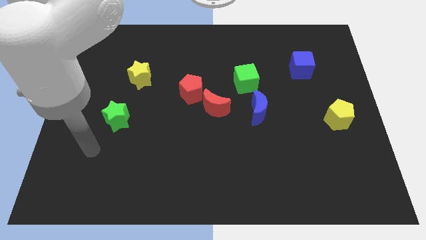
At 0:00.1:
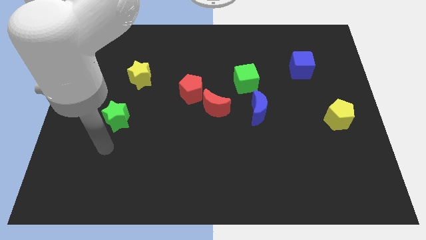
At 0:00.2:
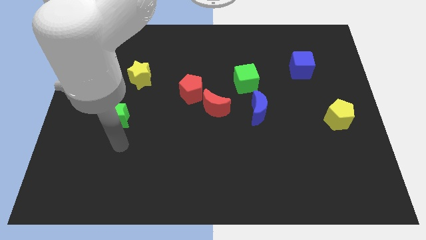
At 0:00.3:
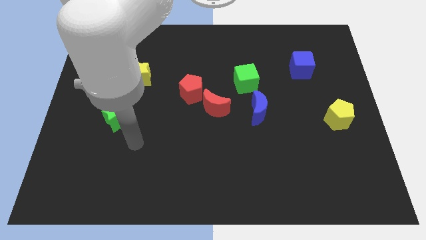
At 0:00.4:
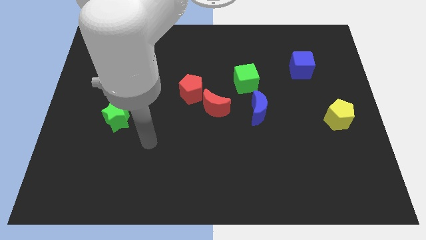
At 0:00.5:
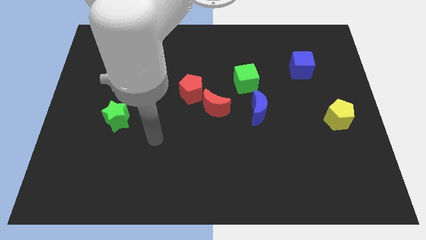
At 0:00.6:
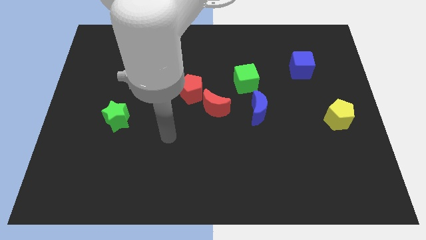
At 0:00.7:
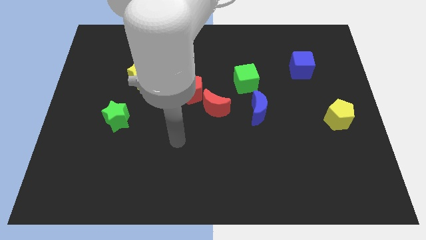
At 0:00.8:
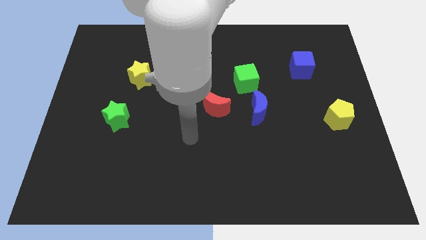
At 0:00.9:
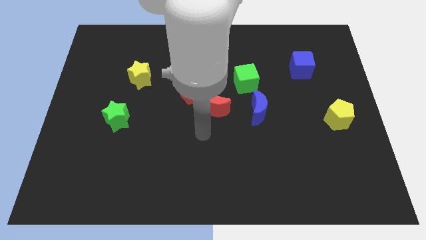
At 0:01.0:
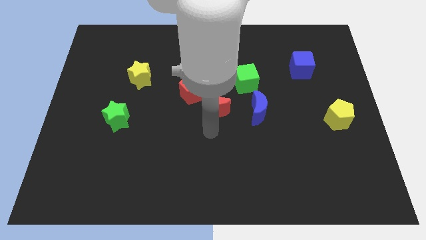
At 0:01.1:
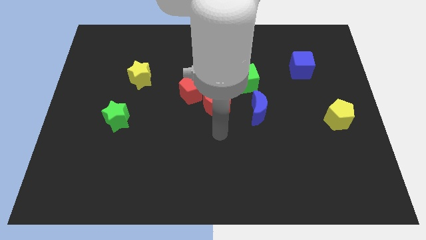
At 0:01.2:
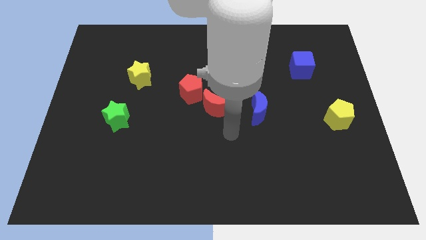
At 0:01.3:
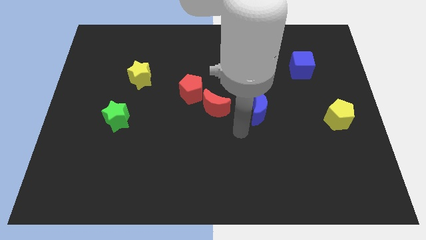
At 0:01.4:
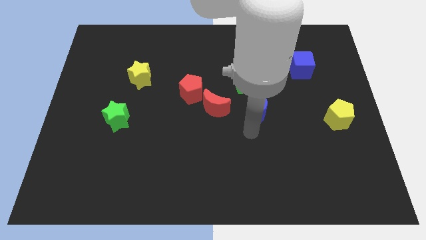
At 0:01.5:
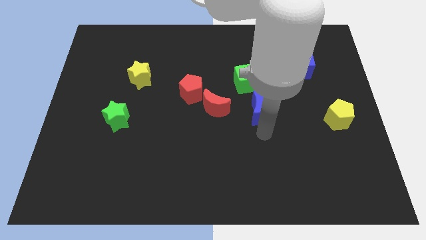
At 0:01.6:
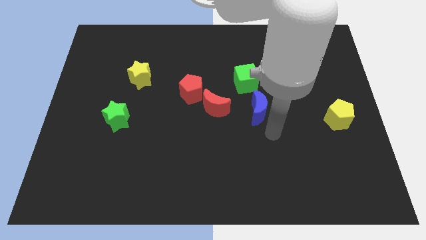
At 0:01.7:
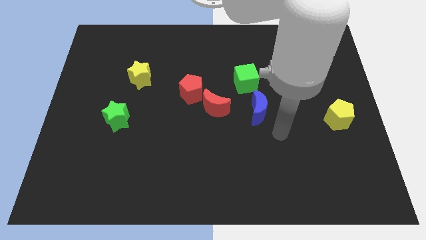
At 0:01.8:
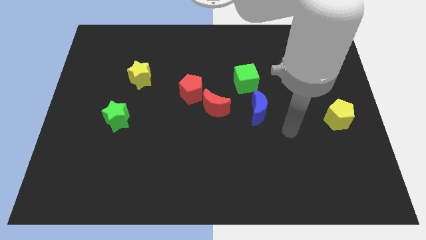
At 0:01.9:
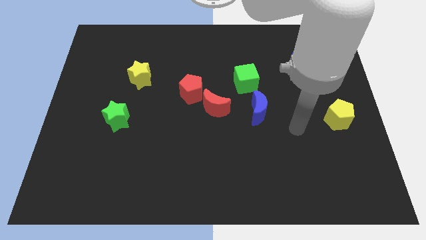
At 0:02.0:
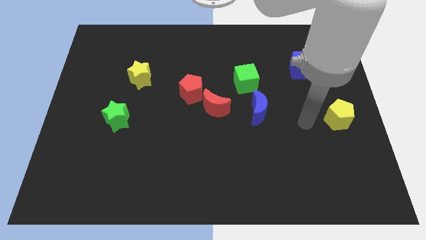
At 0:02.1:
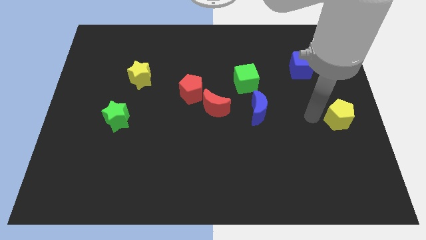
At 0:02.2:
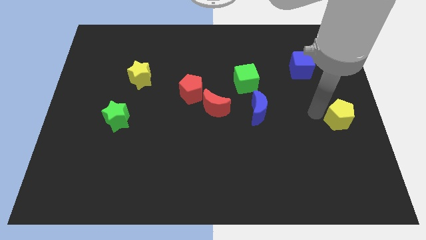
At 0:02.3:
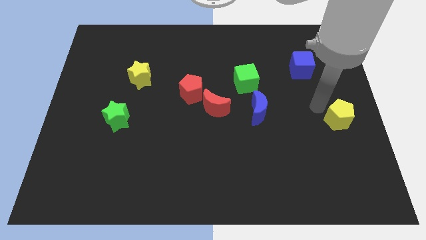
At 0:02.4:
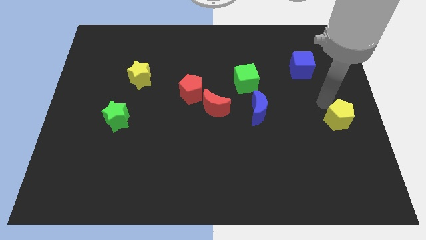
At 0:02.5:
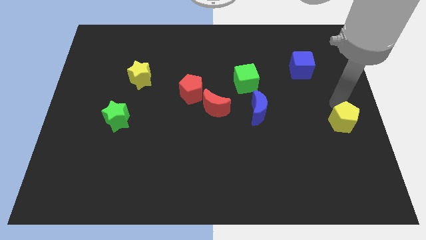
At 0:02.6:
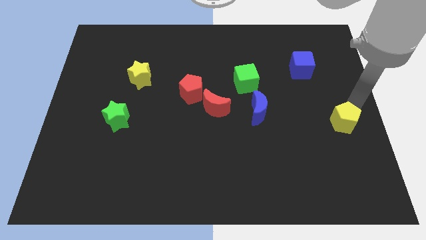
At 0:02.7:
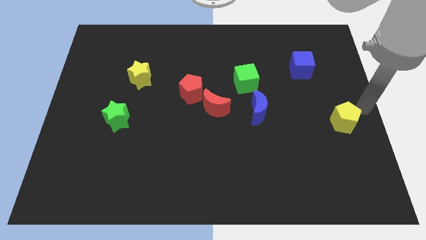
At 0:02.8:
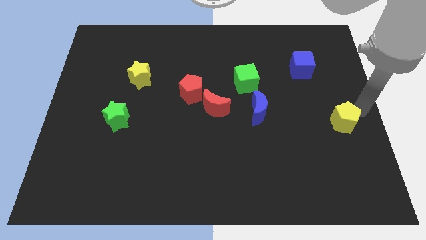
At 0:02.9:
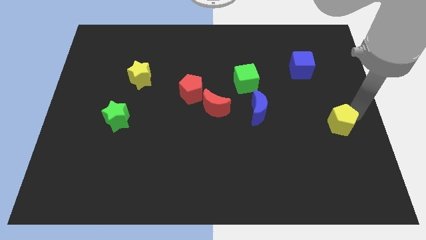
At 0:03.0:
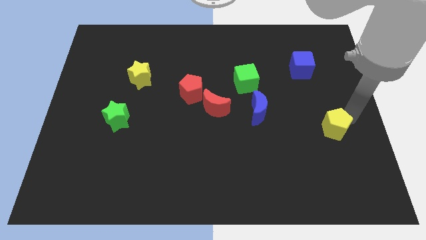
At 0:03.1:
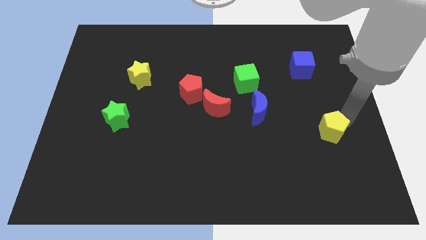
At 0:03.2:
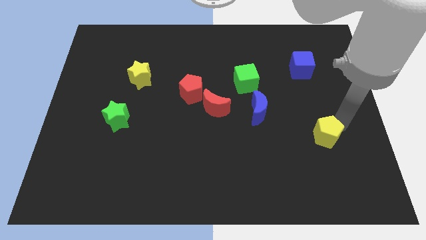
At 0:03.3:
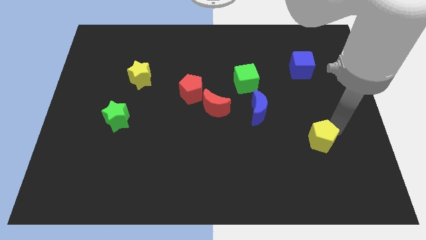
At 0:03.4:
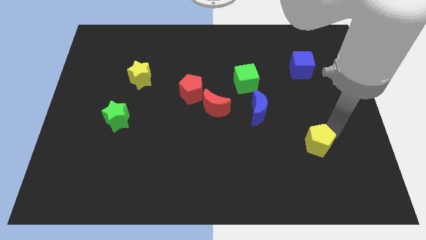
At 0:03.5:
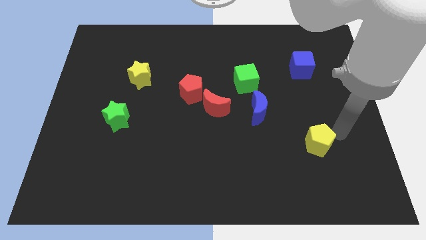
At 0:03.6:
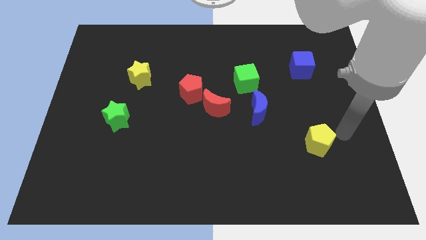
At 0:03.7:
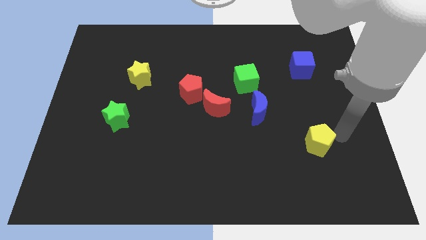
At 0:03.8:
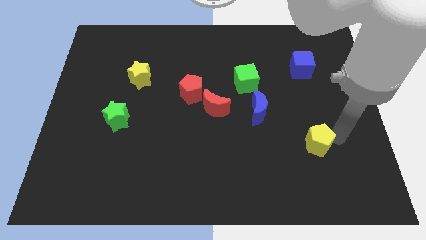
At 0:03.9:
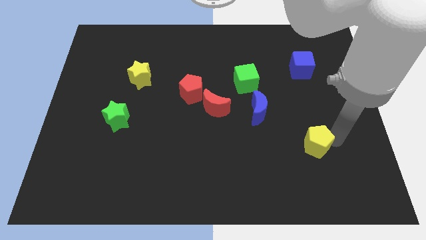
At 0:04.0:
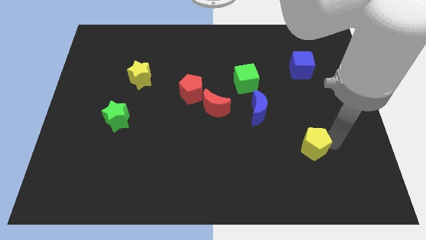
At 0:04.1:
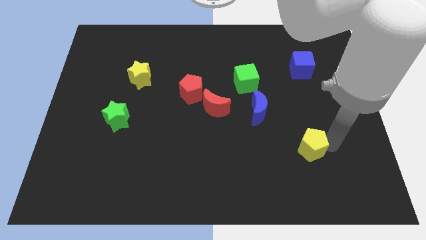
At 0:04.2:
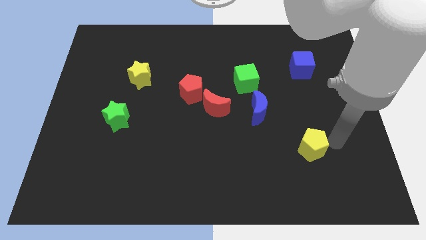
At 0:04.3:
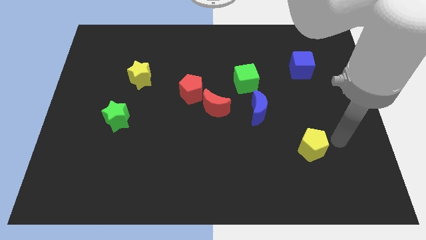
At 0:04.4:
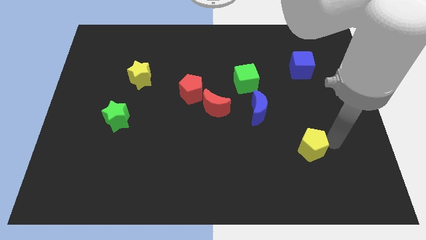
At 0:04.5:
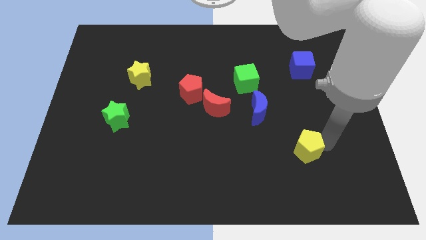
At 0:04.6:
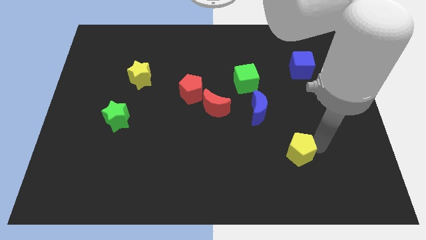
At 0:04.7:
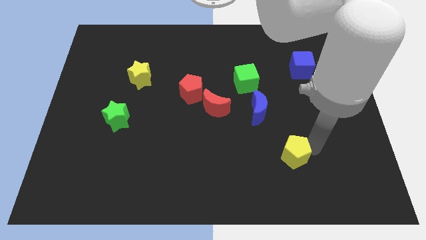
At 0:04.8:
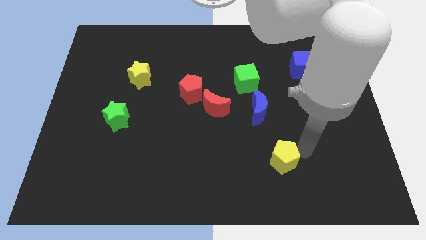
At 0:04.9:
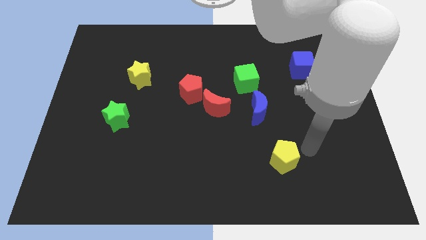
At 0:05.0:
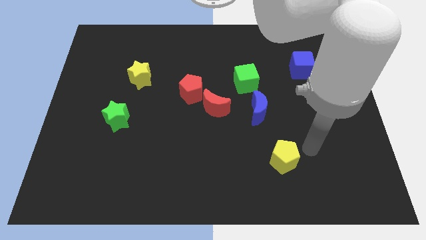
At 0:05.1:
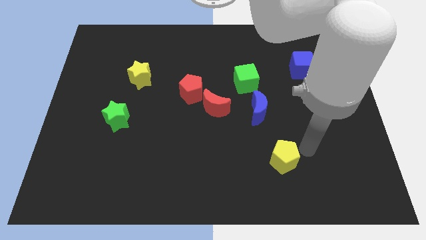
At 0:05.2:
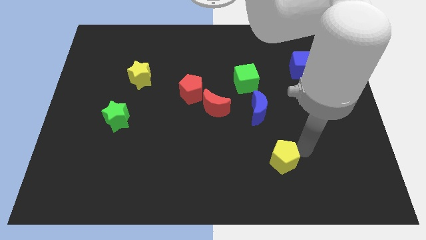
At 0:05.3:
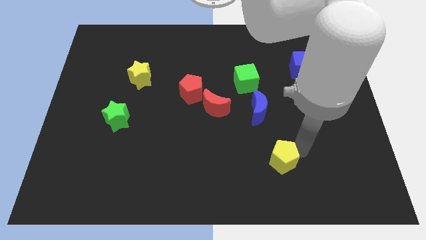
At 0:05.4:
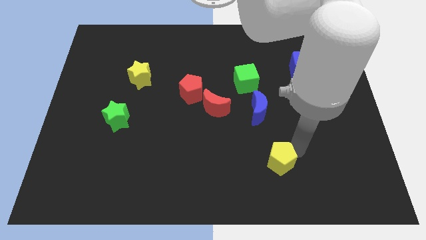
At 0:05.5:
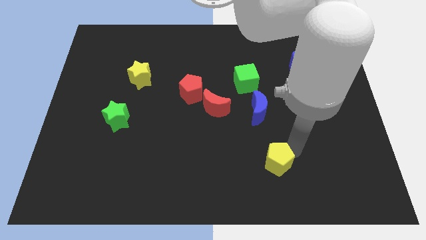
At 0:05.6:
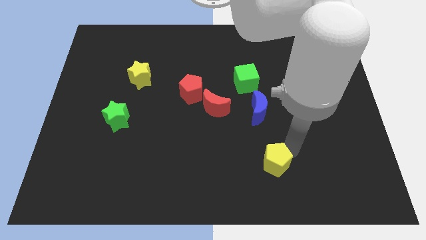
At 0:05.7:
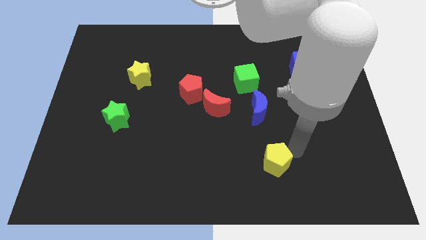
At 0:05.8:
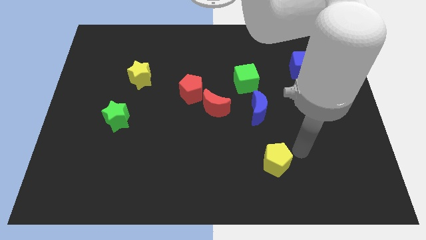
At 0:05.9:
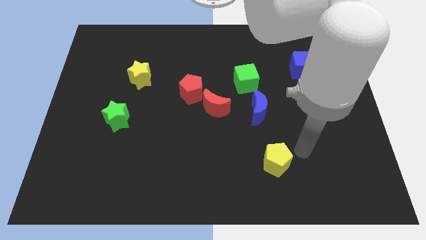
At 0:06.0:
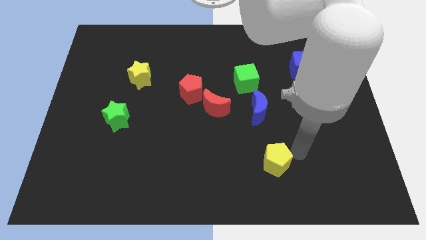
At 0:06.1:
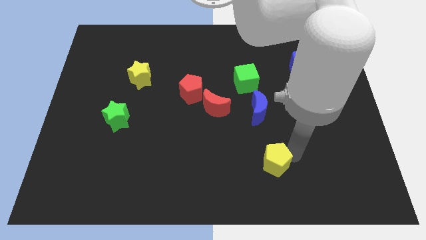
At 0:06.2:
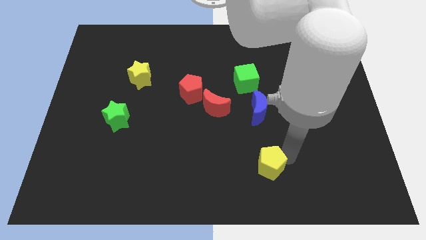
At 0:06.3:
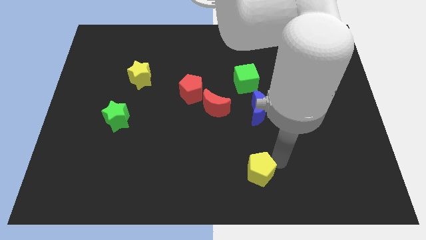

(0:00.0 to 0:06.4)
slide the yellow pentagon to the bottom side
